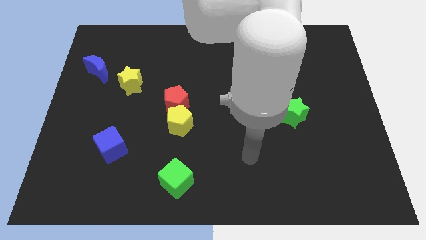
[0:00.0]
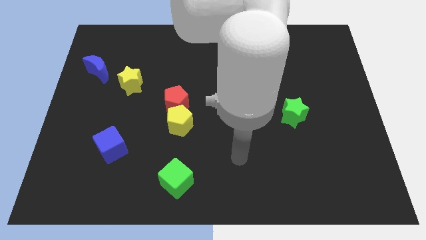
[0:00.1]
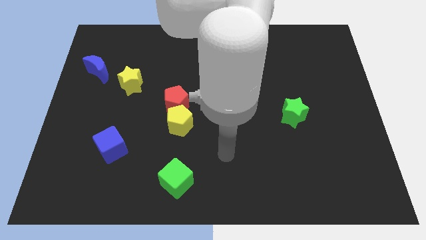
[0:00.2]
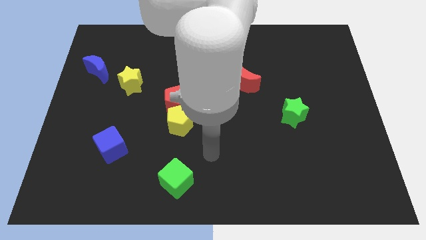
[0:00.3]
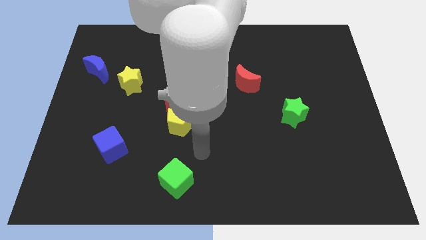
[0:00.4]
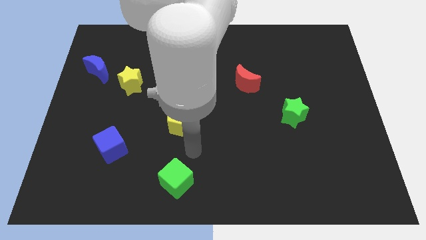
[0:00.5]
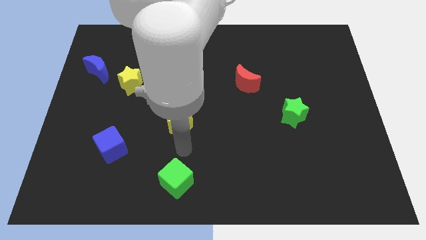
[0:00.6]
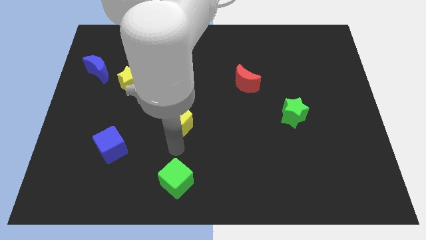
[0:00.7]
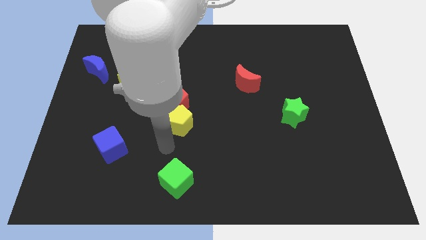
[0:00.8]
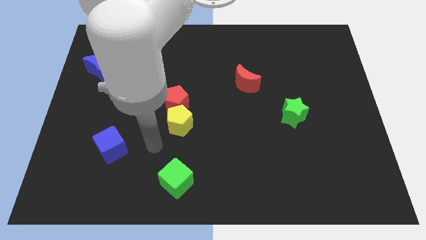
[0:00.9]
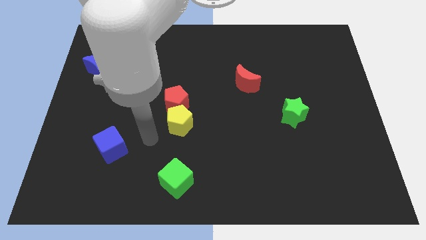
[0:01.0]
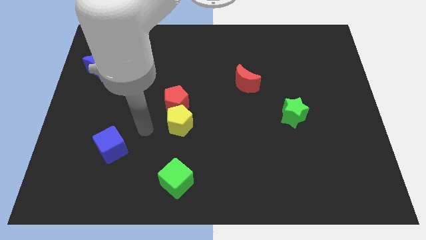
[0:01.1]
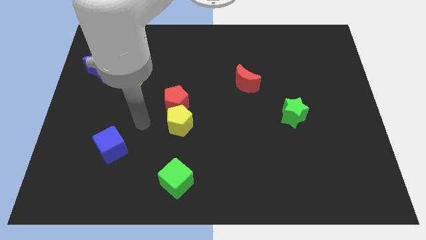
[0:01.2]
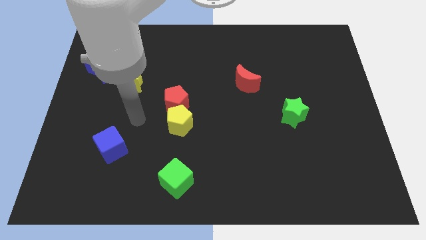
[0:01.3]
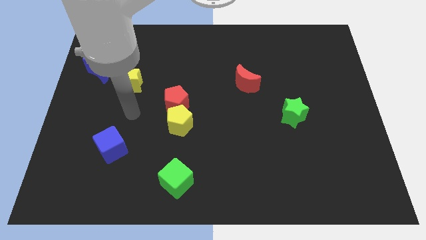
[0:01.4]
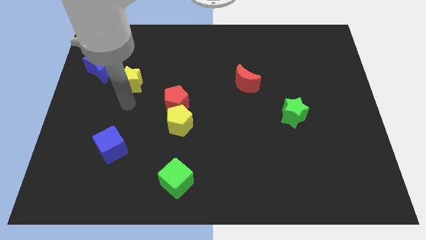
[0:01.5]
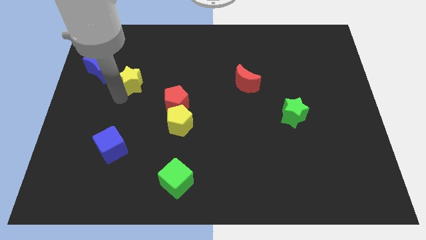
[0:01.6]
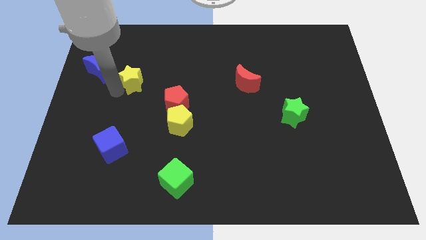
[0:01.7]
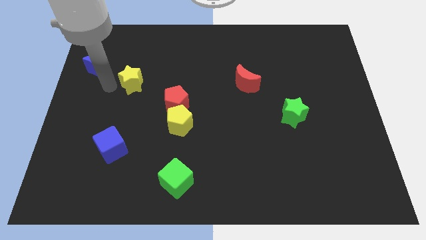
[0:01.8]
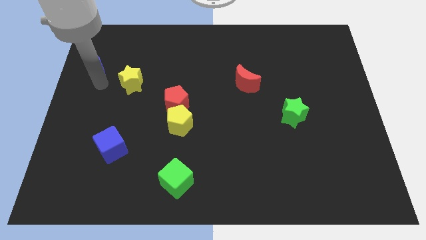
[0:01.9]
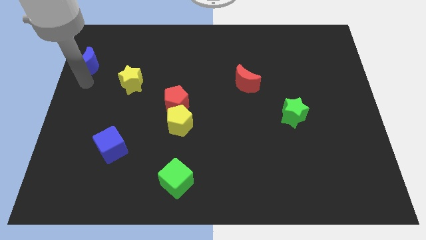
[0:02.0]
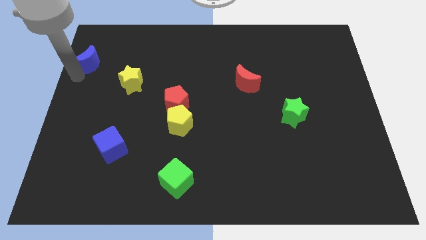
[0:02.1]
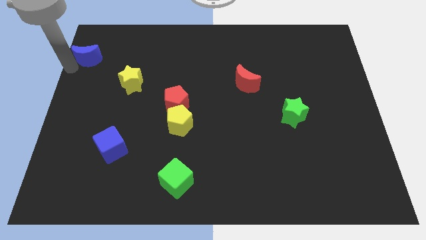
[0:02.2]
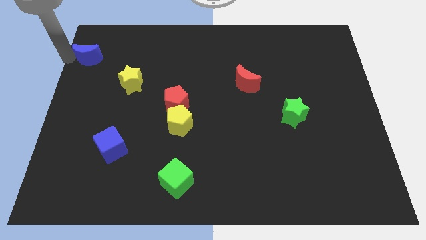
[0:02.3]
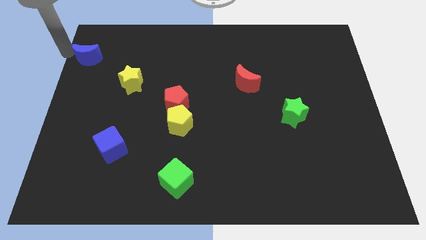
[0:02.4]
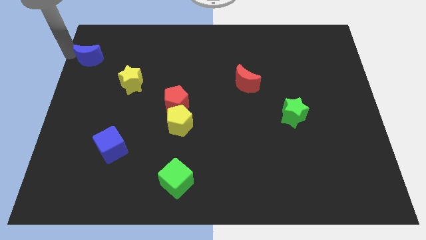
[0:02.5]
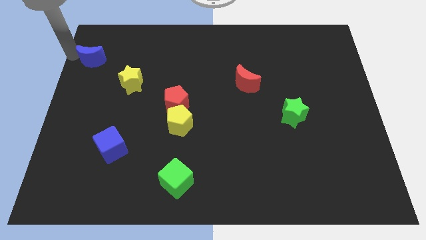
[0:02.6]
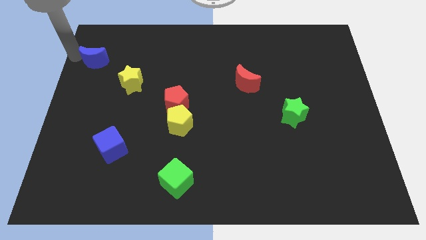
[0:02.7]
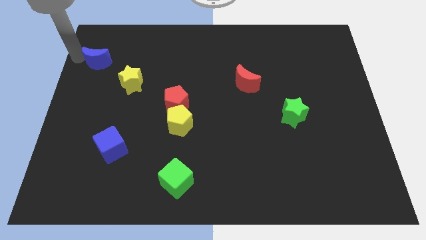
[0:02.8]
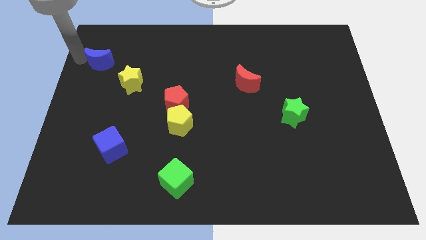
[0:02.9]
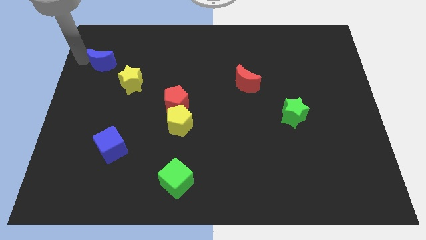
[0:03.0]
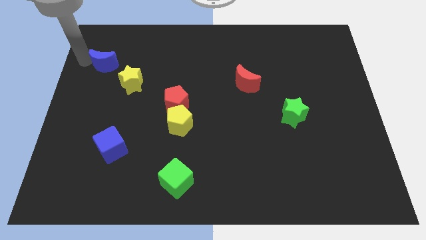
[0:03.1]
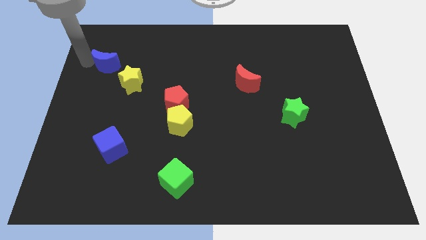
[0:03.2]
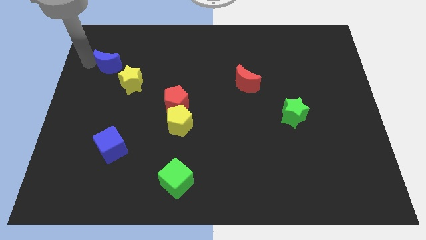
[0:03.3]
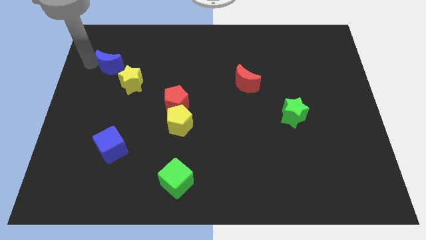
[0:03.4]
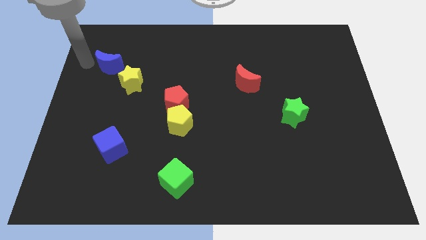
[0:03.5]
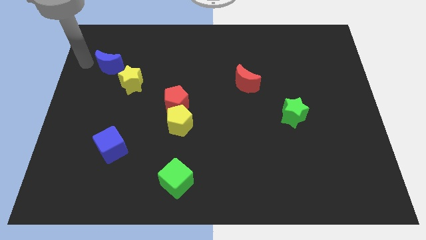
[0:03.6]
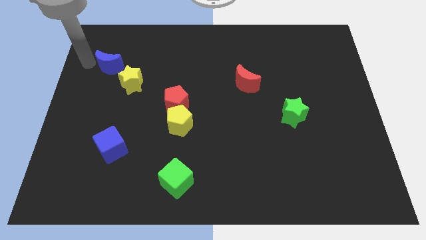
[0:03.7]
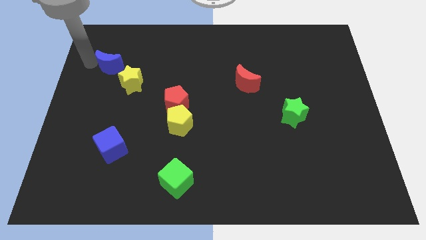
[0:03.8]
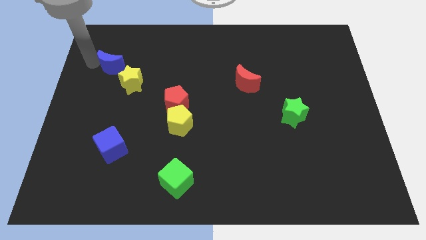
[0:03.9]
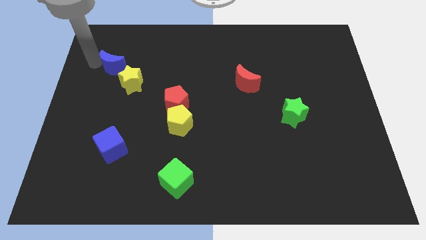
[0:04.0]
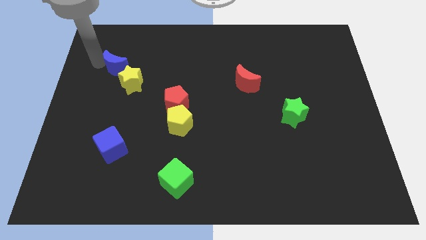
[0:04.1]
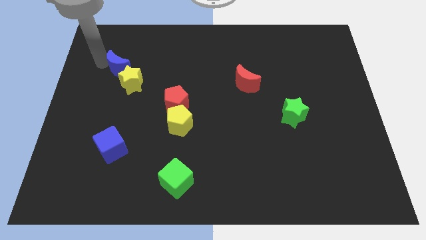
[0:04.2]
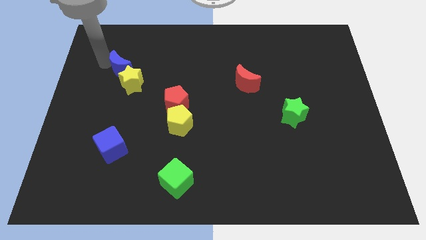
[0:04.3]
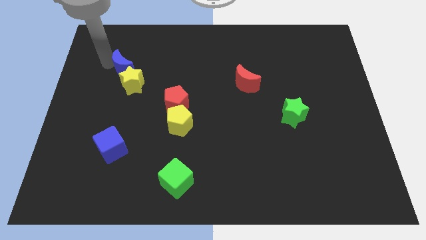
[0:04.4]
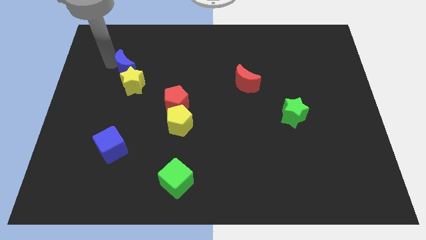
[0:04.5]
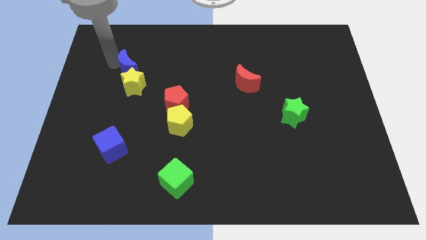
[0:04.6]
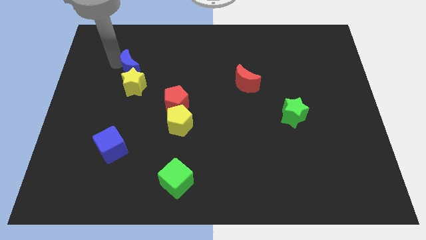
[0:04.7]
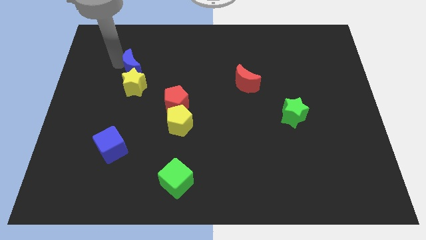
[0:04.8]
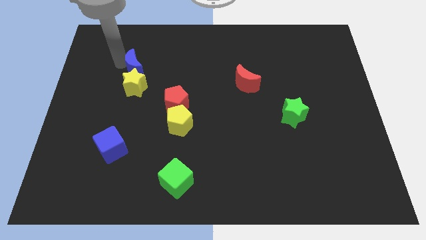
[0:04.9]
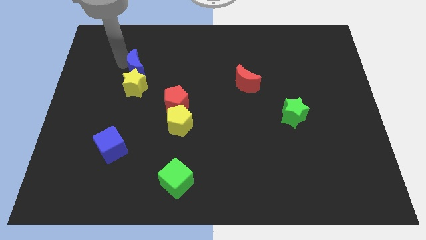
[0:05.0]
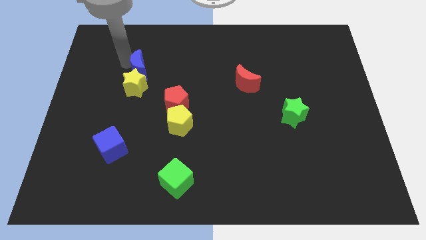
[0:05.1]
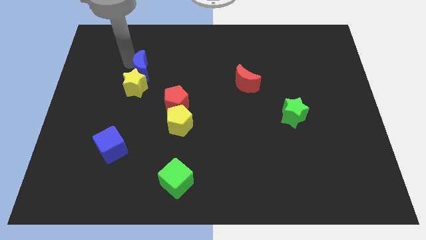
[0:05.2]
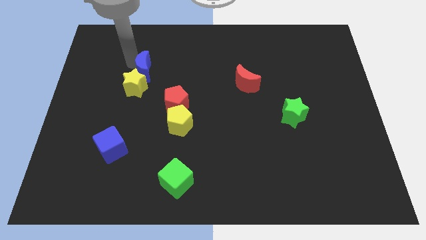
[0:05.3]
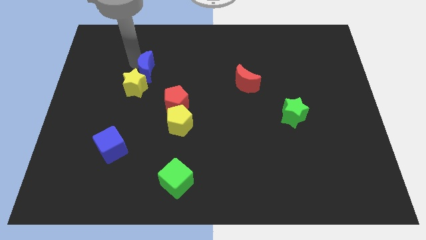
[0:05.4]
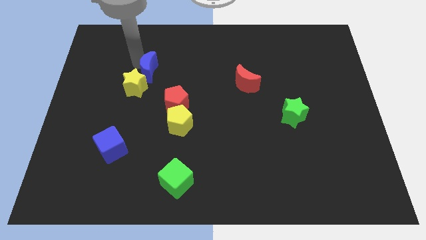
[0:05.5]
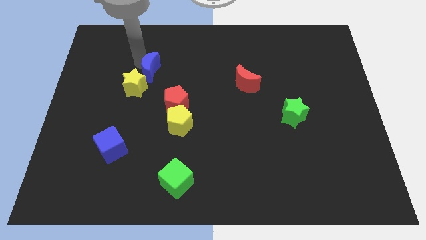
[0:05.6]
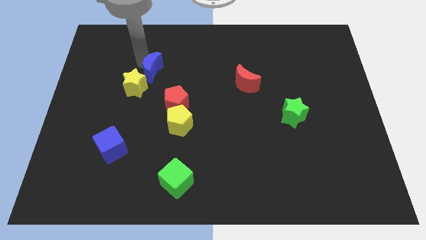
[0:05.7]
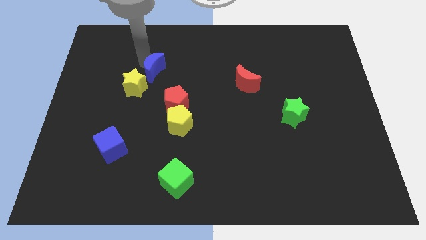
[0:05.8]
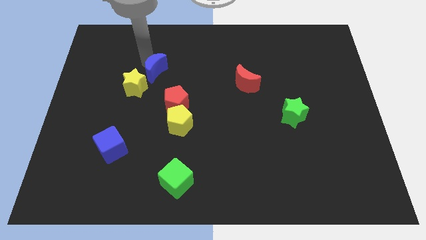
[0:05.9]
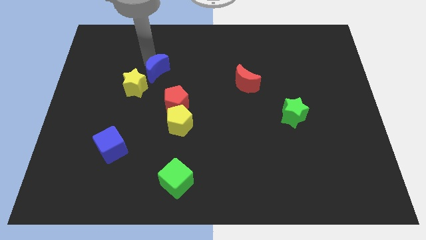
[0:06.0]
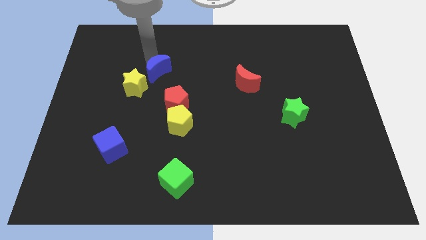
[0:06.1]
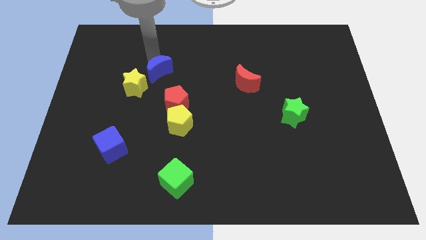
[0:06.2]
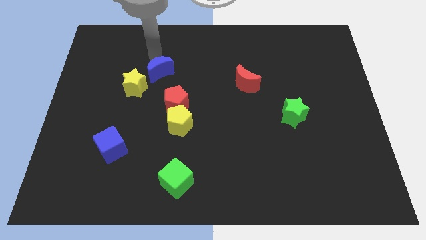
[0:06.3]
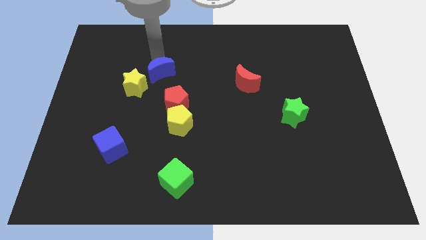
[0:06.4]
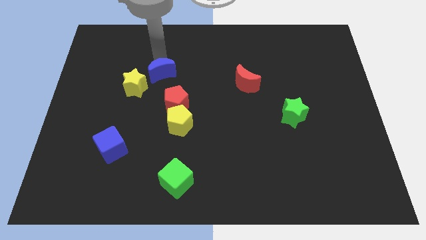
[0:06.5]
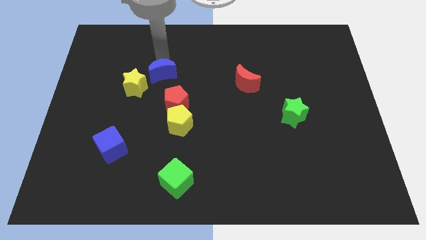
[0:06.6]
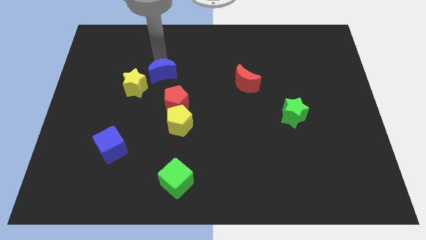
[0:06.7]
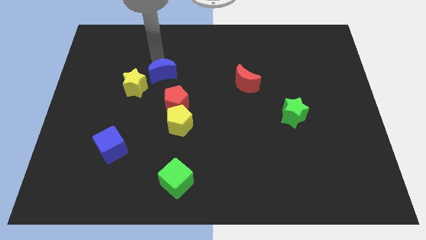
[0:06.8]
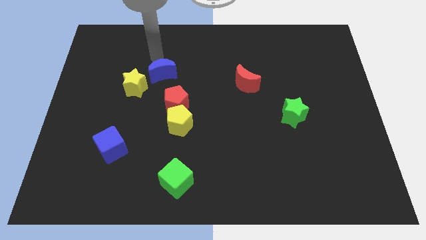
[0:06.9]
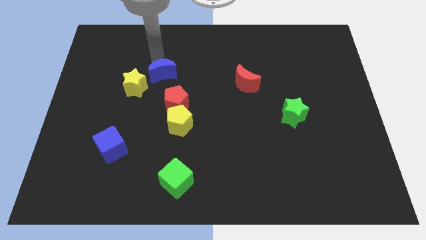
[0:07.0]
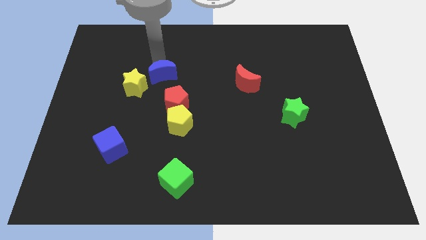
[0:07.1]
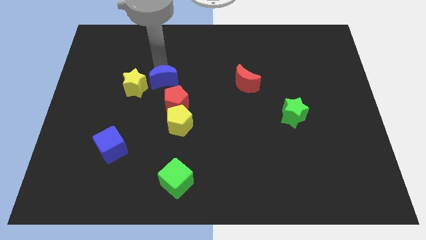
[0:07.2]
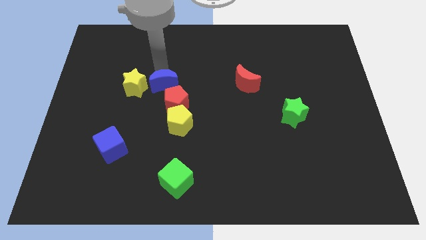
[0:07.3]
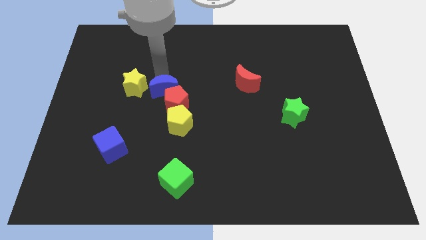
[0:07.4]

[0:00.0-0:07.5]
put the blue moon towards the red pentagon
